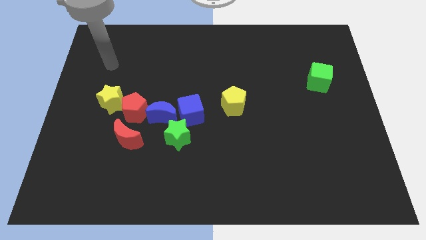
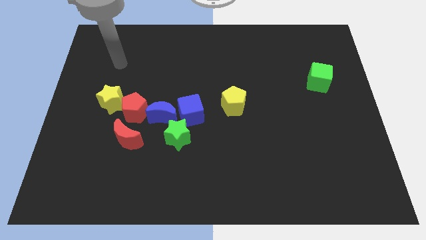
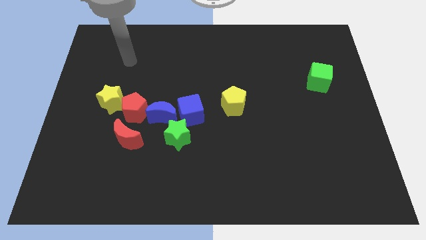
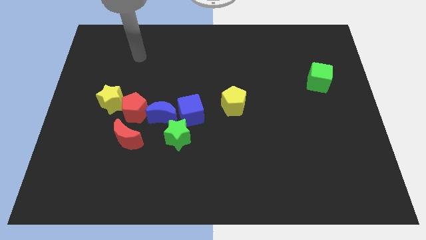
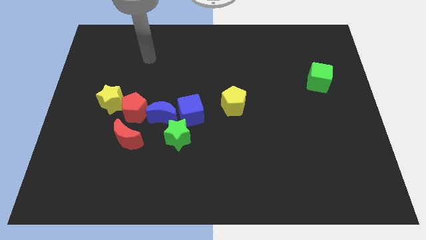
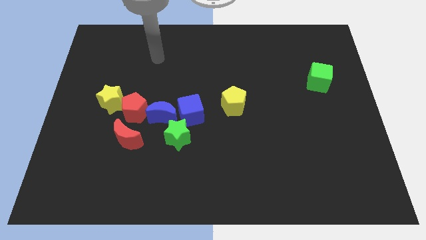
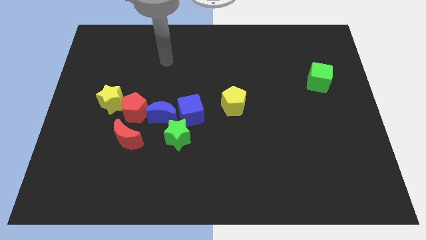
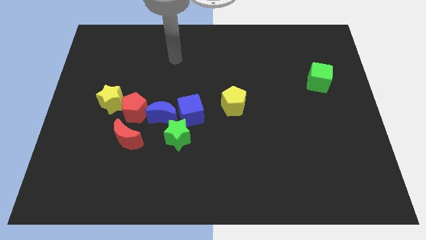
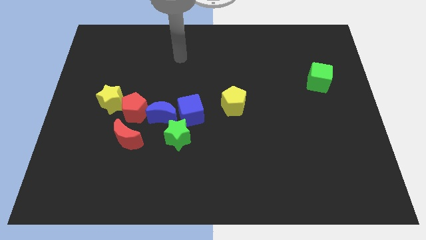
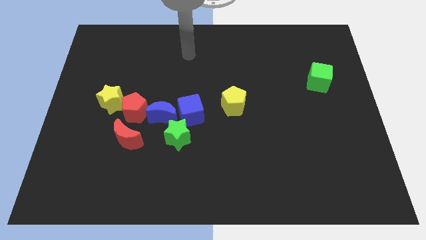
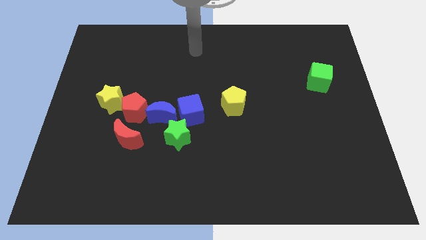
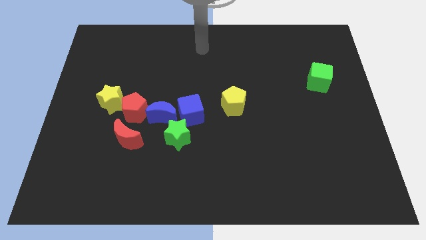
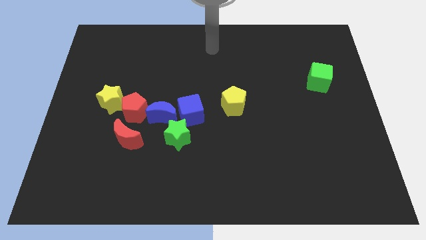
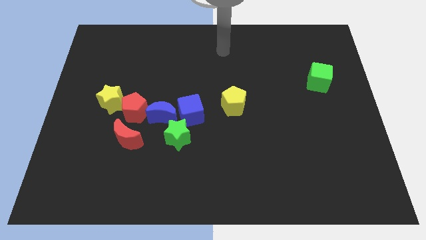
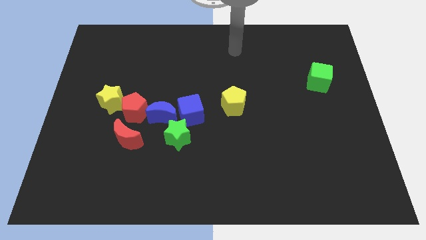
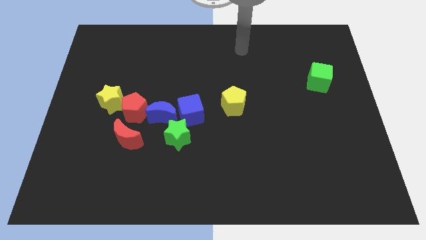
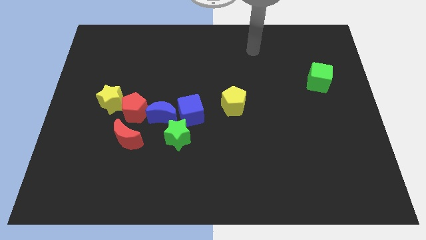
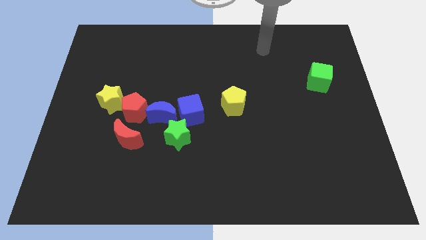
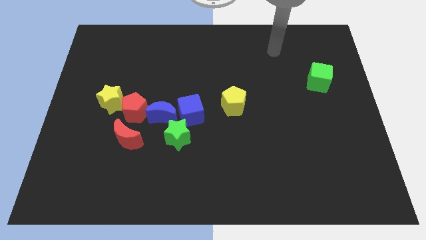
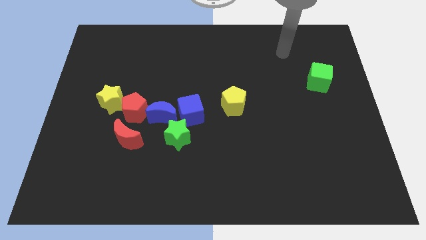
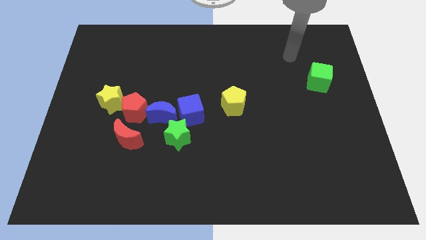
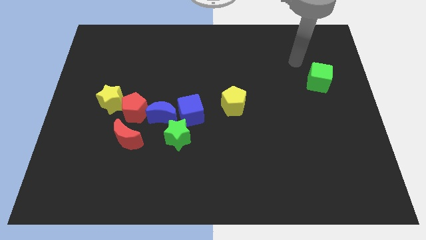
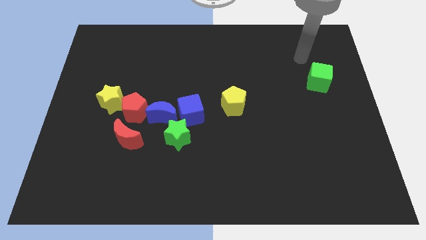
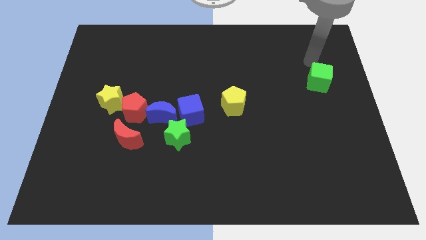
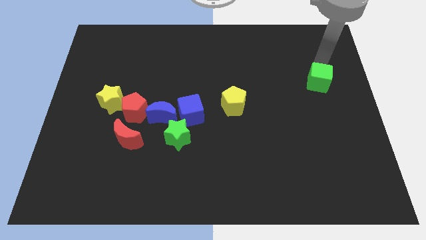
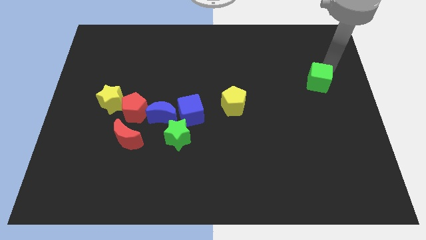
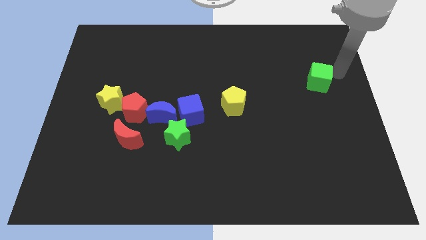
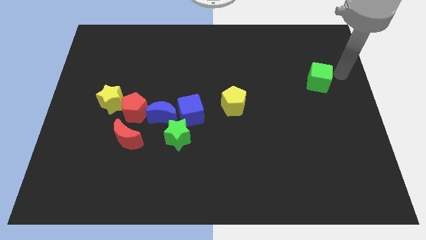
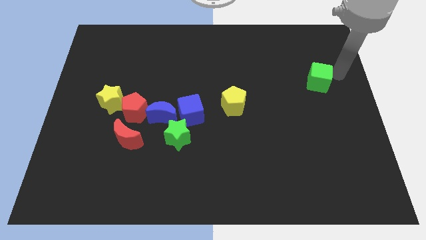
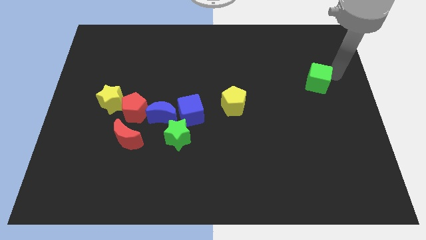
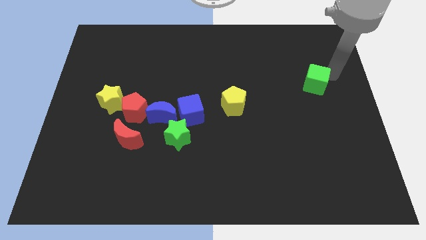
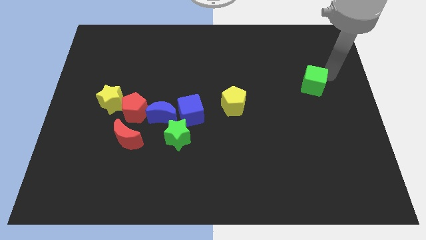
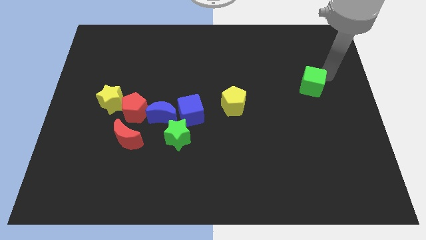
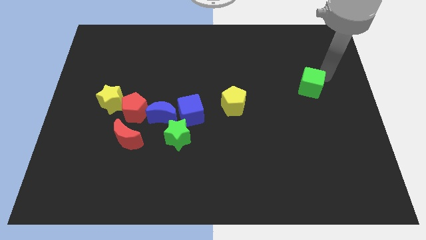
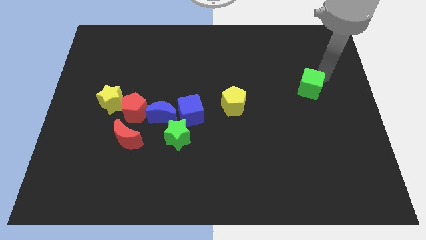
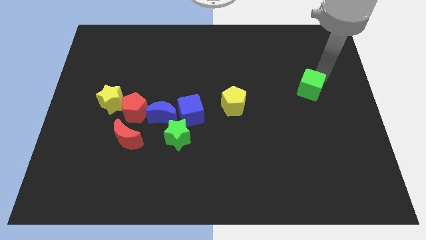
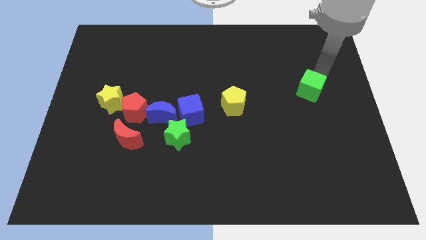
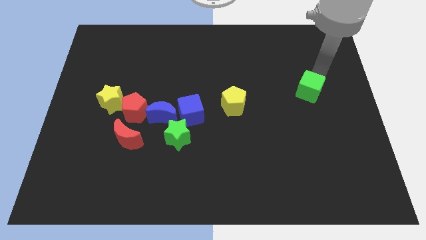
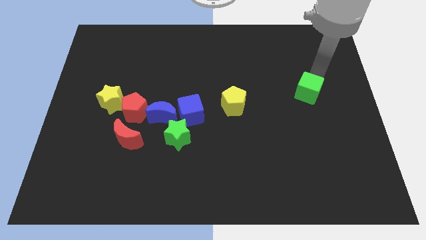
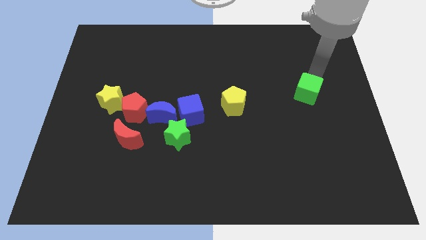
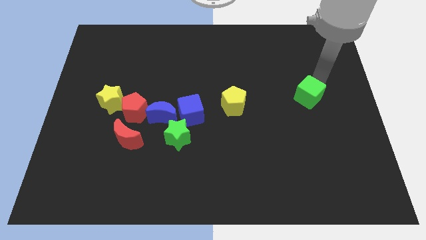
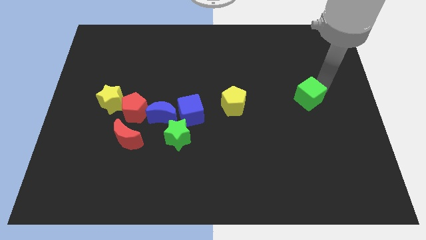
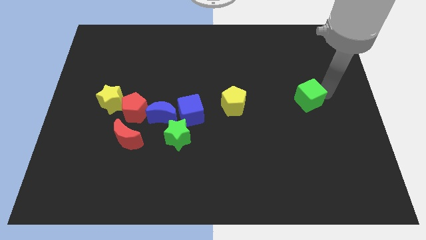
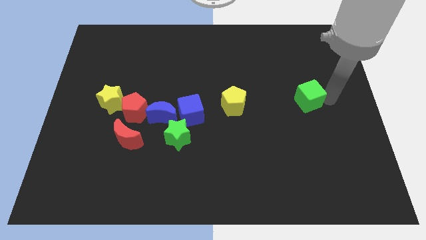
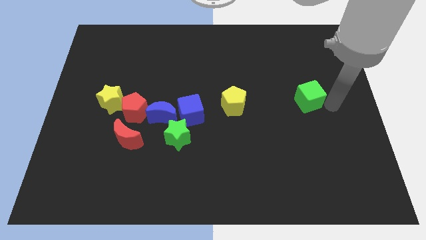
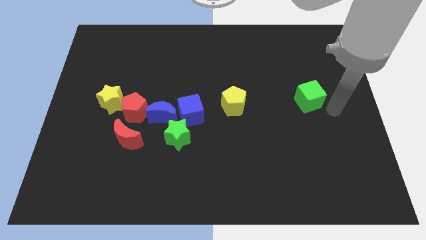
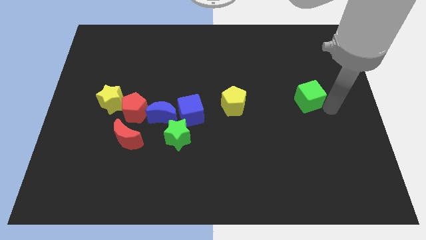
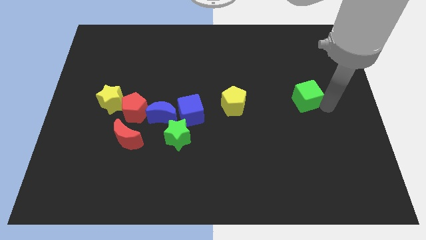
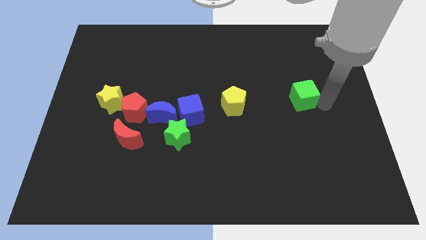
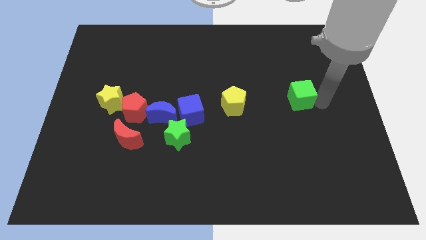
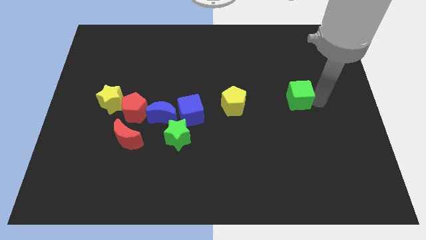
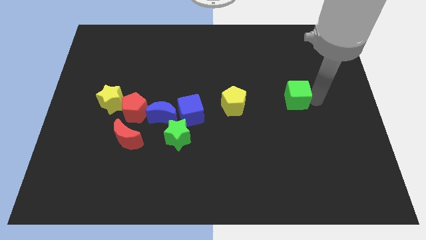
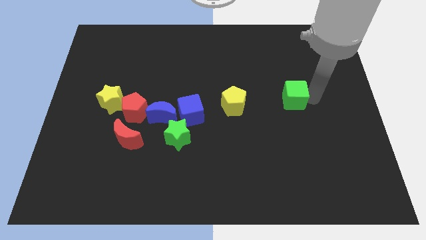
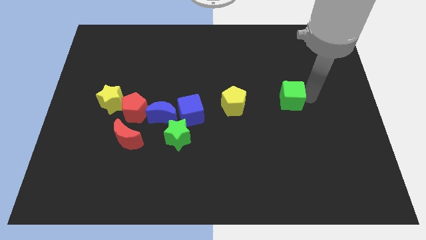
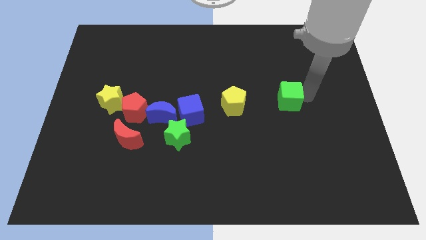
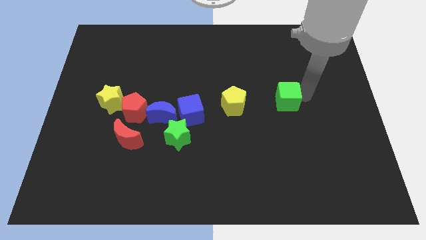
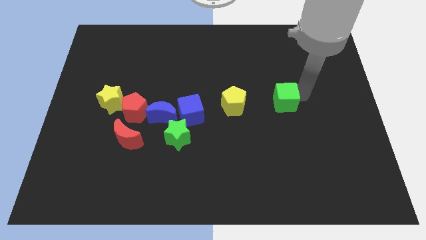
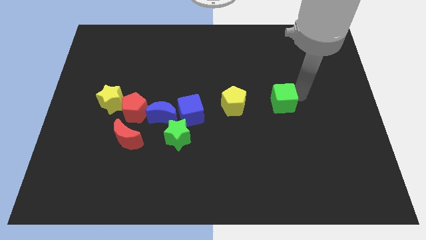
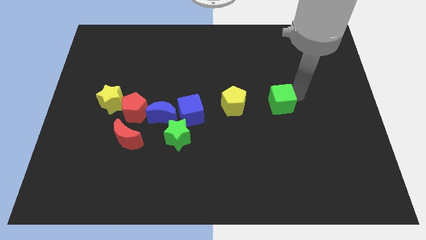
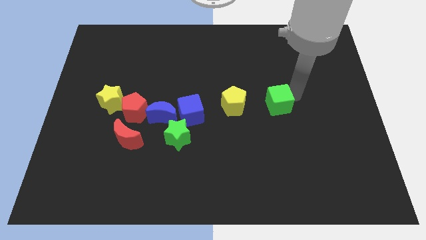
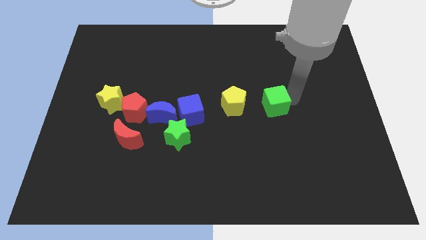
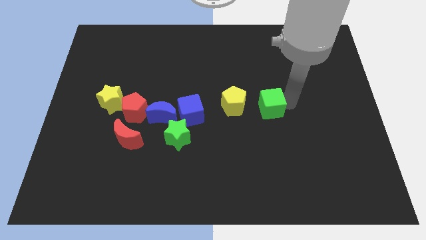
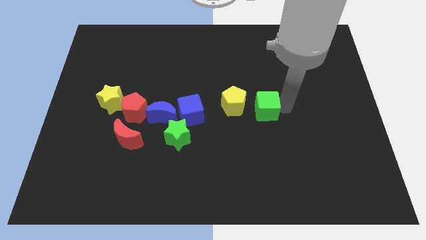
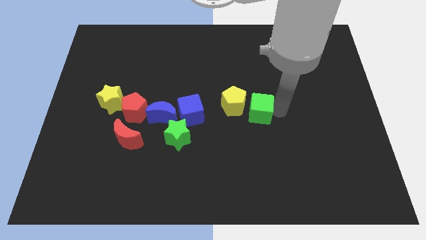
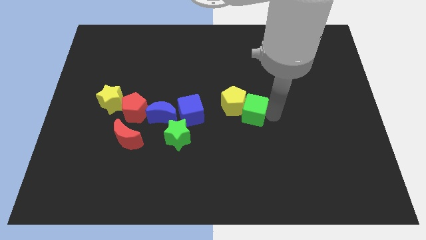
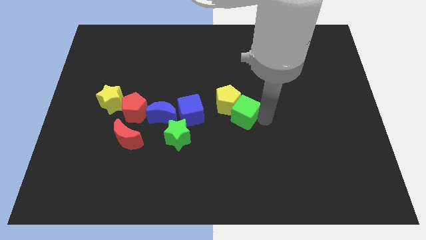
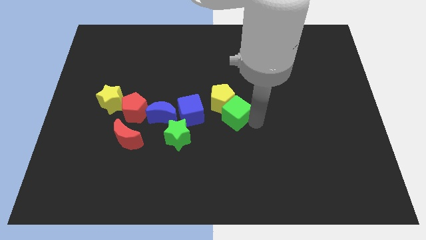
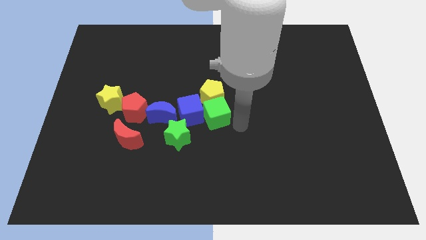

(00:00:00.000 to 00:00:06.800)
put the green cube next to the blue cube

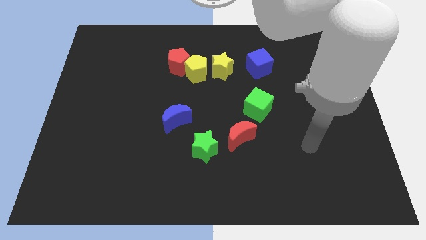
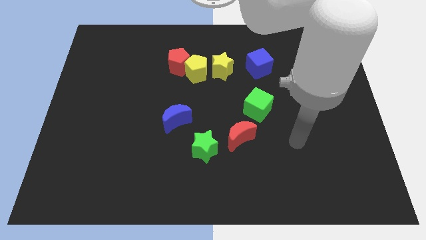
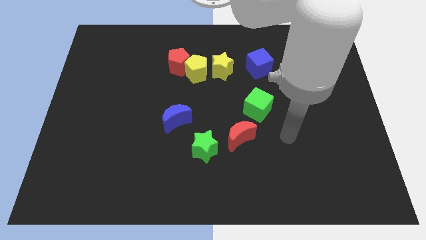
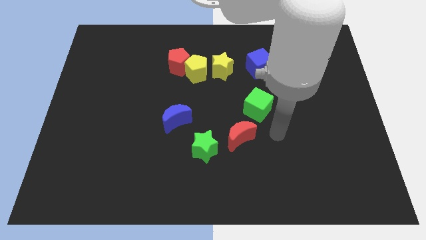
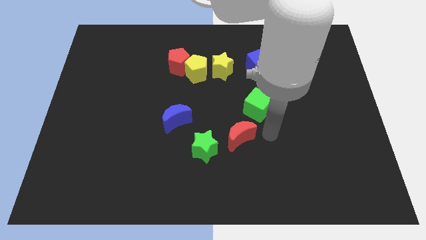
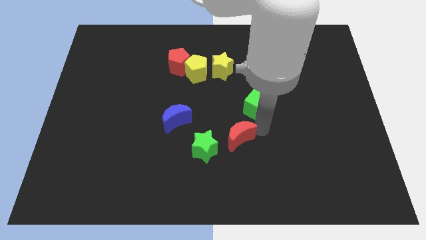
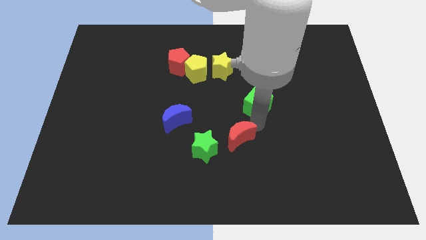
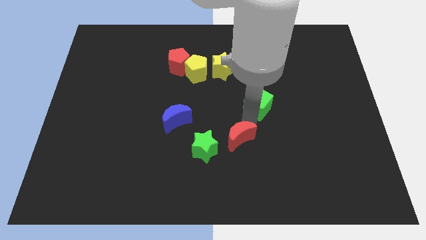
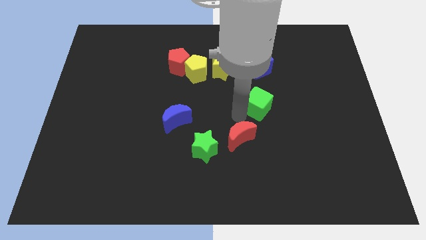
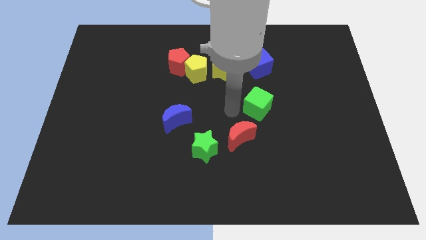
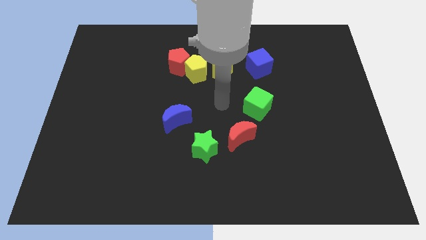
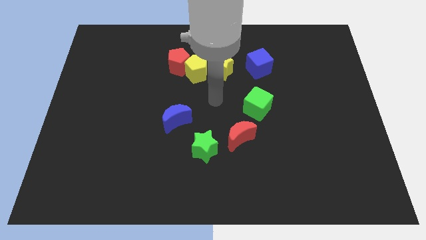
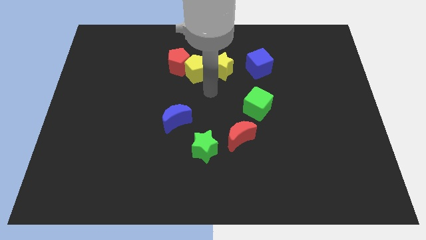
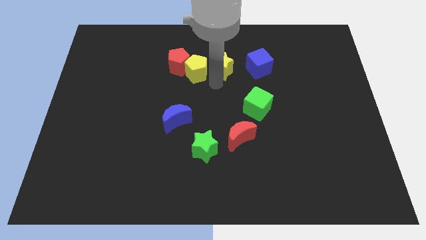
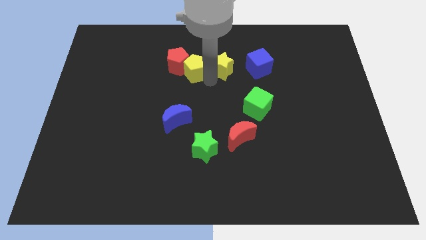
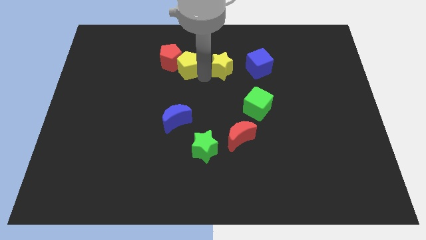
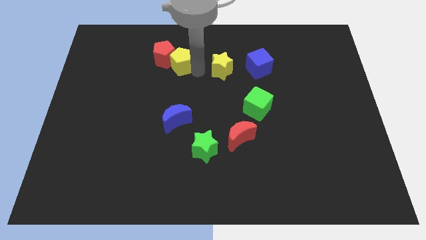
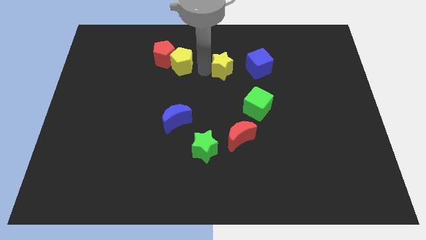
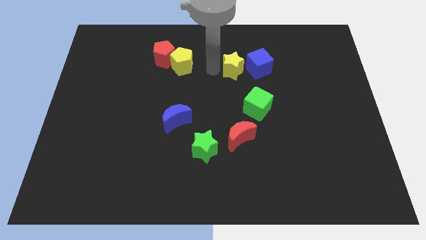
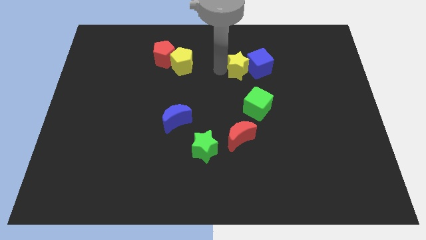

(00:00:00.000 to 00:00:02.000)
slide the yellow star next to the blue cube
